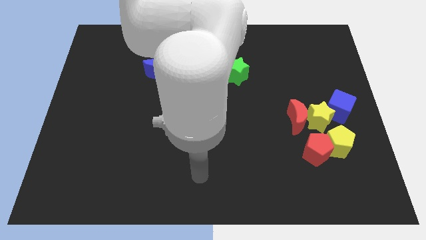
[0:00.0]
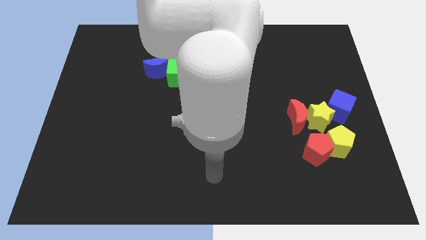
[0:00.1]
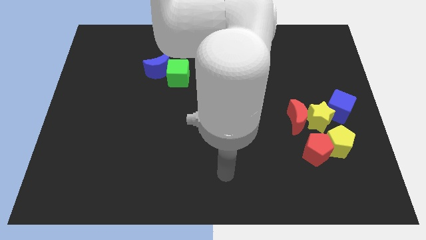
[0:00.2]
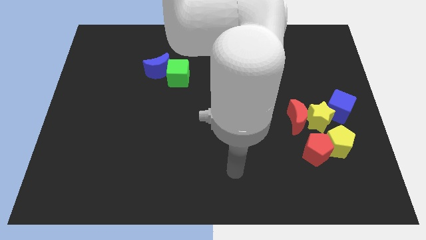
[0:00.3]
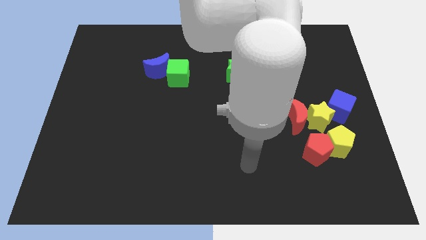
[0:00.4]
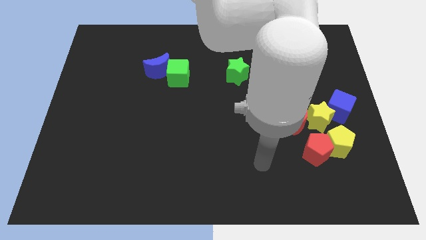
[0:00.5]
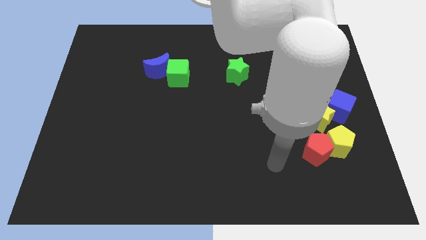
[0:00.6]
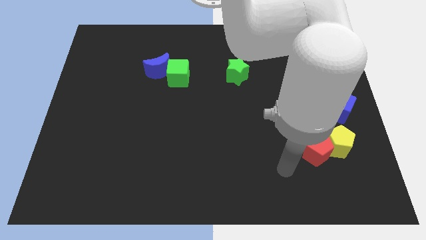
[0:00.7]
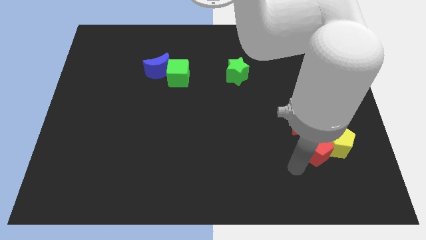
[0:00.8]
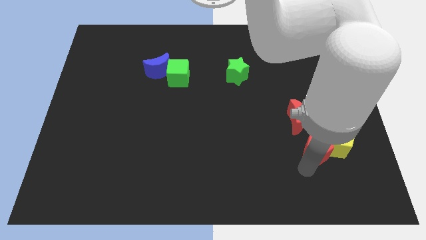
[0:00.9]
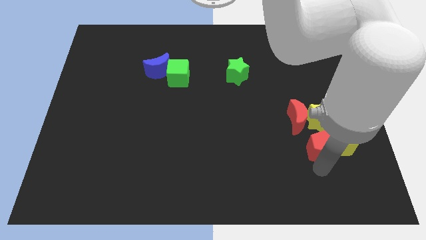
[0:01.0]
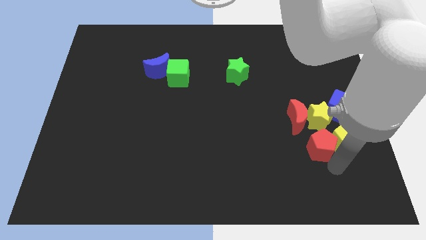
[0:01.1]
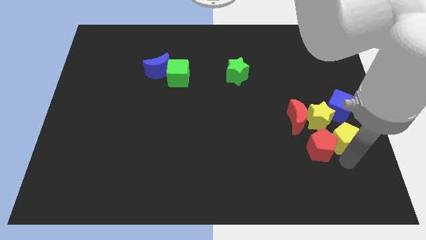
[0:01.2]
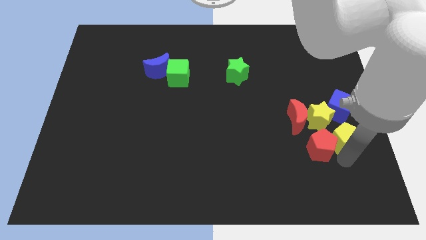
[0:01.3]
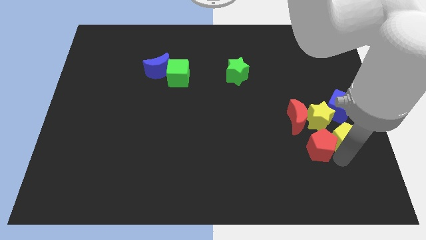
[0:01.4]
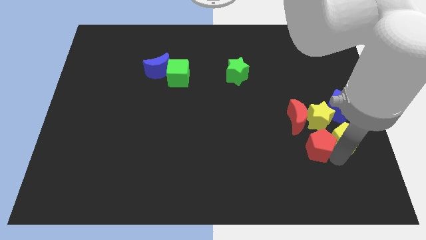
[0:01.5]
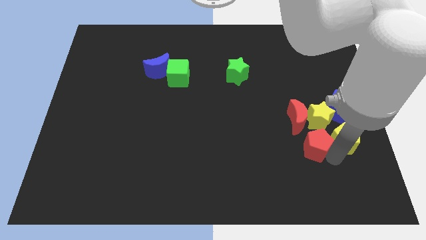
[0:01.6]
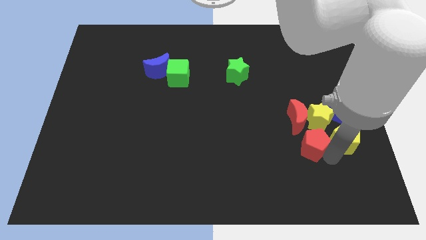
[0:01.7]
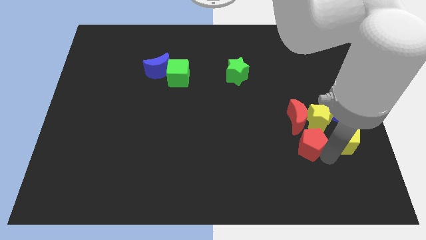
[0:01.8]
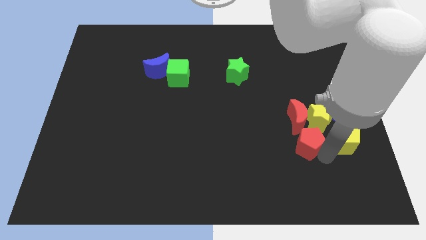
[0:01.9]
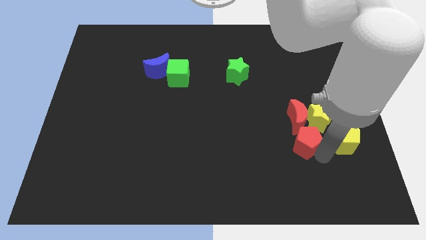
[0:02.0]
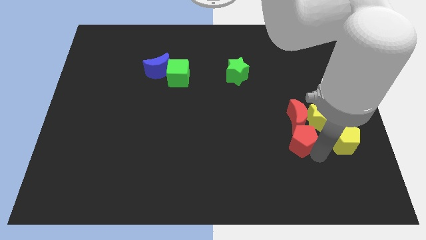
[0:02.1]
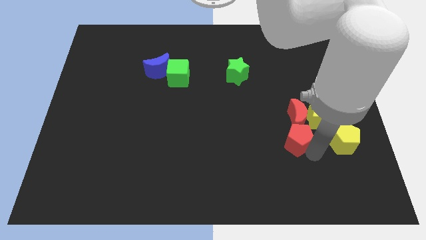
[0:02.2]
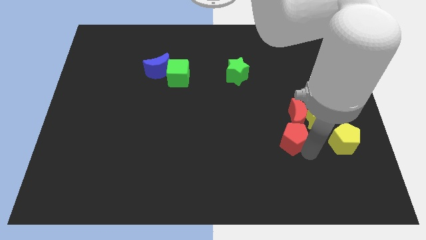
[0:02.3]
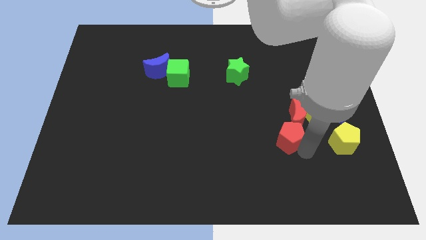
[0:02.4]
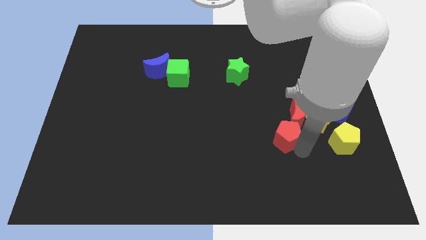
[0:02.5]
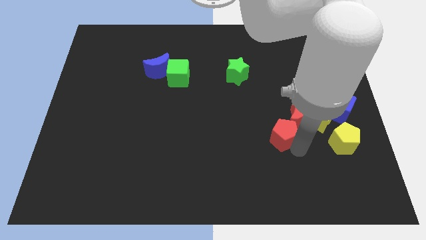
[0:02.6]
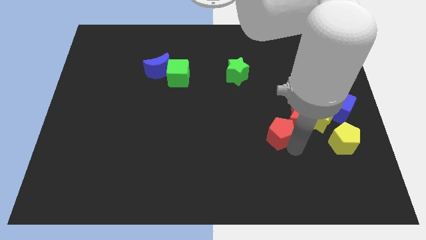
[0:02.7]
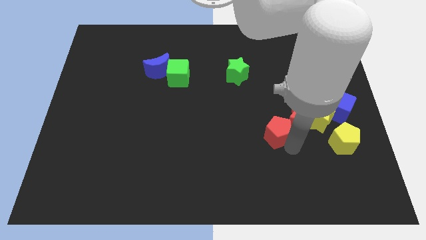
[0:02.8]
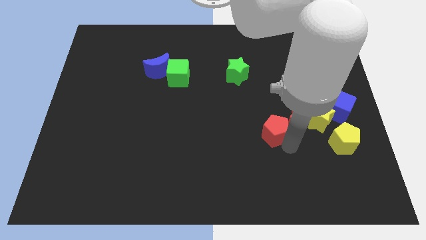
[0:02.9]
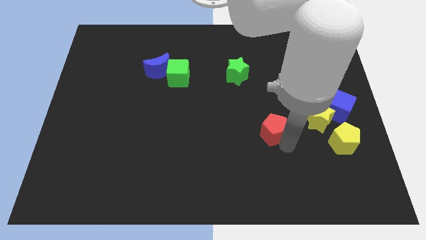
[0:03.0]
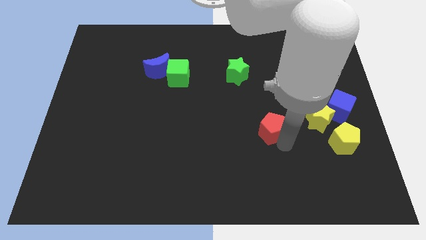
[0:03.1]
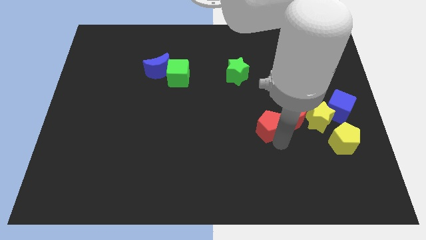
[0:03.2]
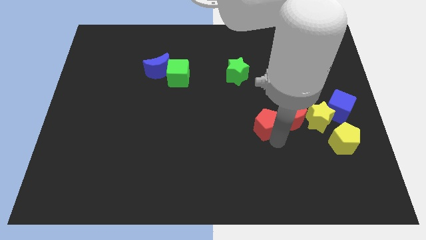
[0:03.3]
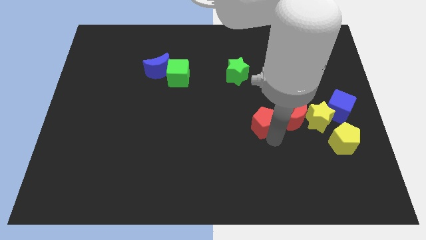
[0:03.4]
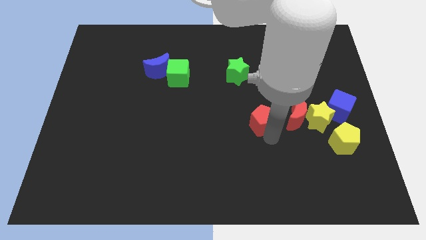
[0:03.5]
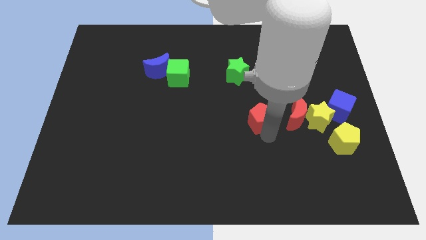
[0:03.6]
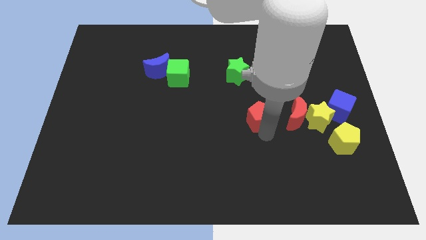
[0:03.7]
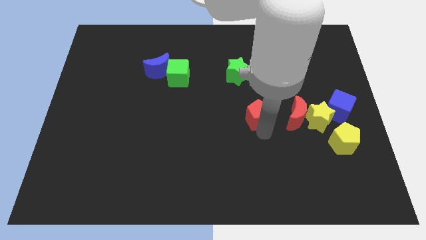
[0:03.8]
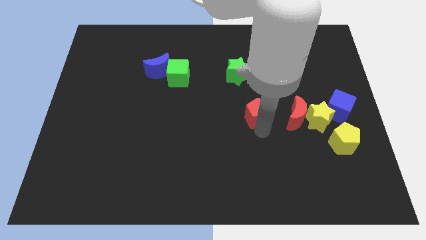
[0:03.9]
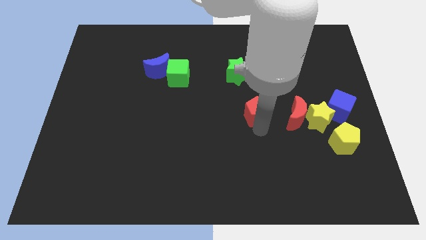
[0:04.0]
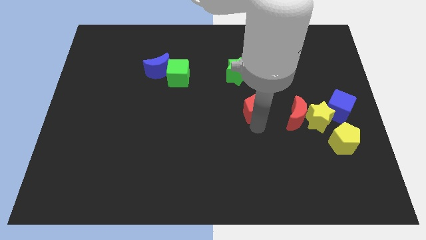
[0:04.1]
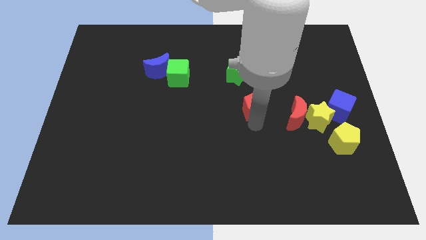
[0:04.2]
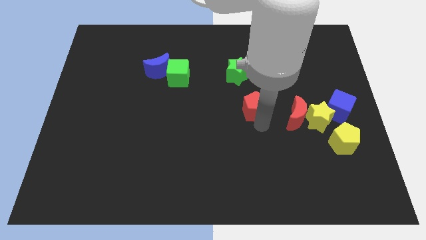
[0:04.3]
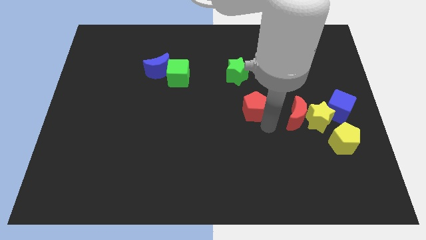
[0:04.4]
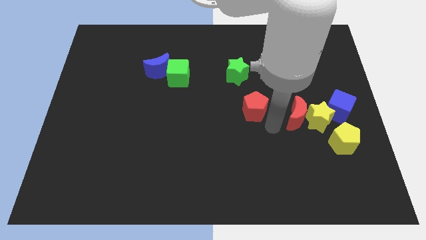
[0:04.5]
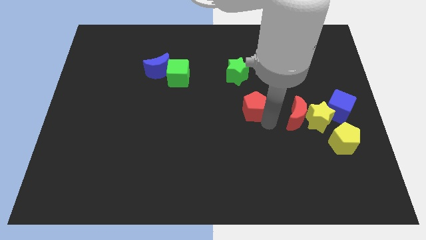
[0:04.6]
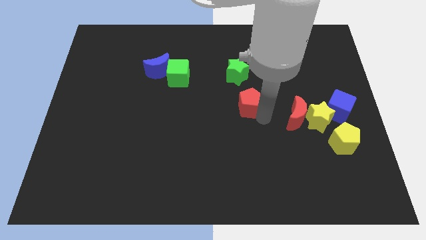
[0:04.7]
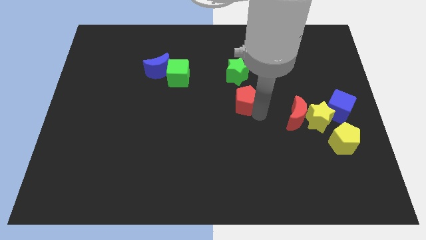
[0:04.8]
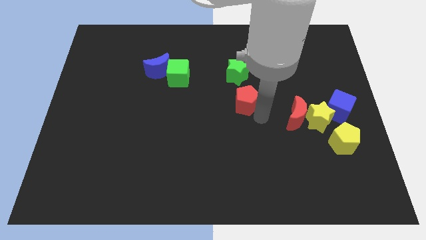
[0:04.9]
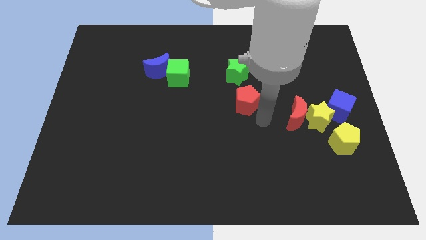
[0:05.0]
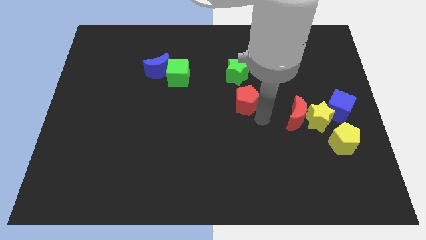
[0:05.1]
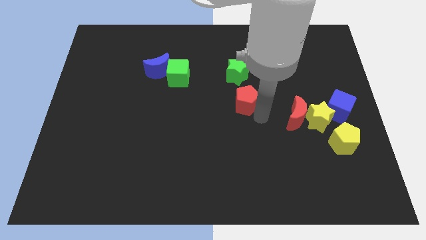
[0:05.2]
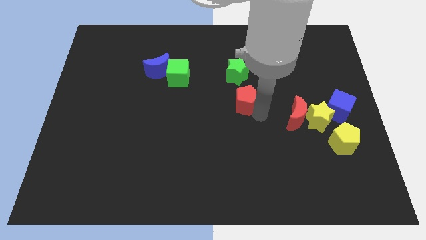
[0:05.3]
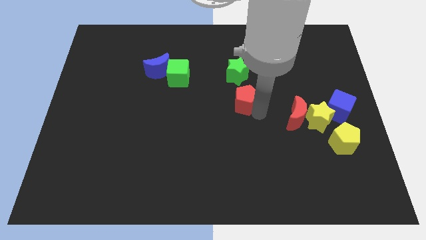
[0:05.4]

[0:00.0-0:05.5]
push the red pentagon upwards and then left

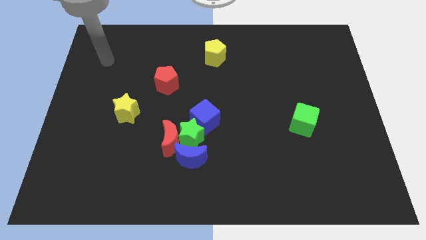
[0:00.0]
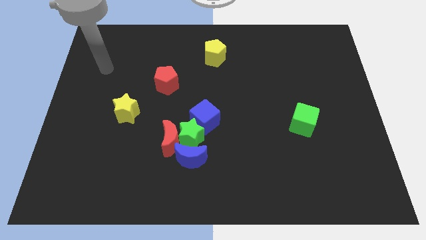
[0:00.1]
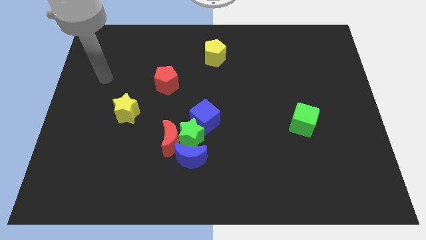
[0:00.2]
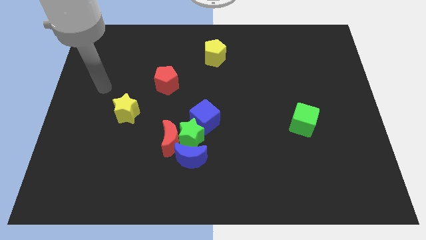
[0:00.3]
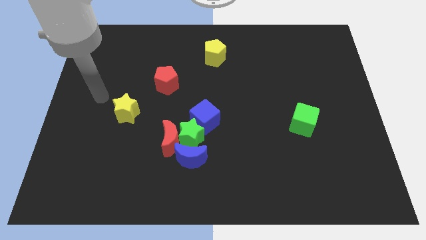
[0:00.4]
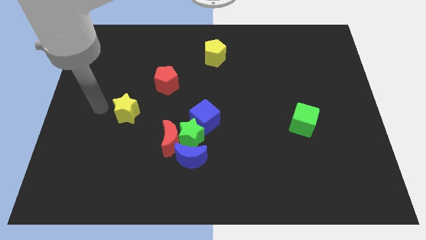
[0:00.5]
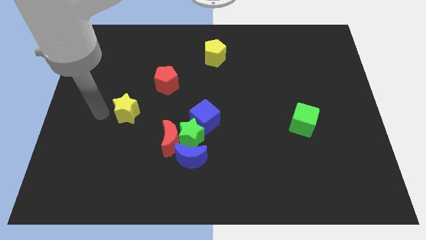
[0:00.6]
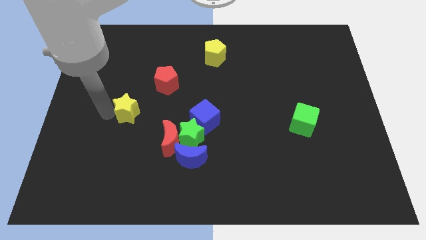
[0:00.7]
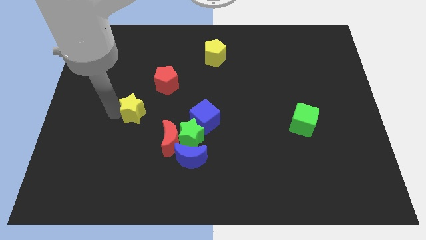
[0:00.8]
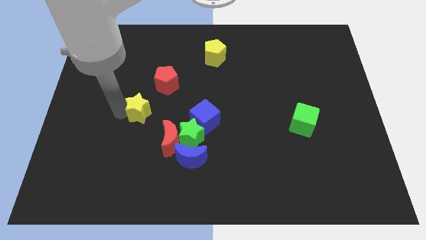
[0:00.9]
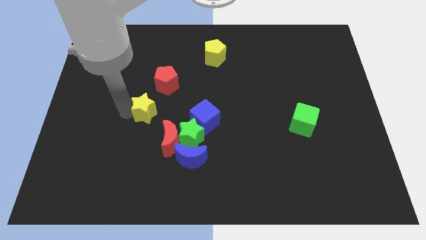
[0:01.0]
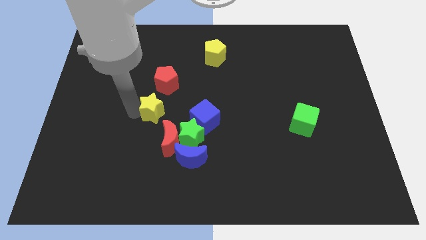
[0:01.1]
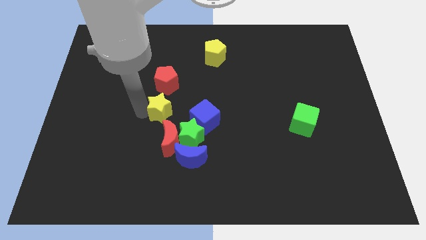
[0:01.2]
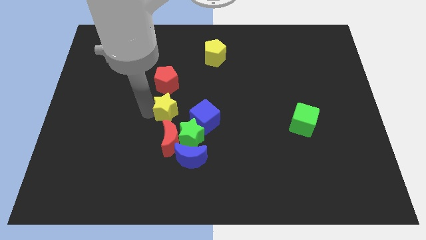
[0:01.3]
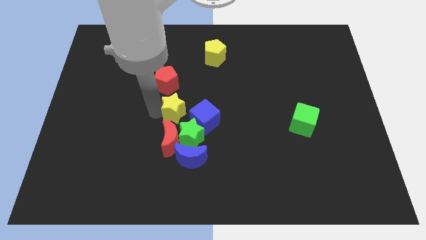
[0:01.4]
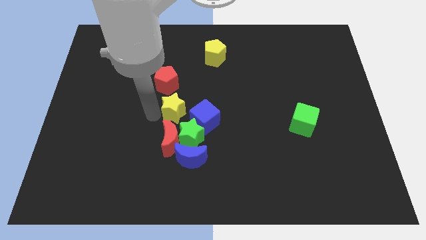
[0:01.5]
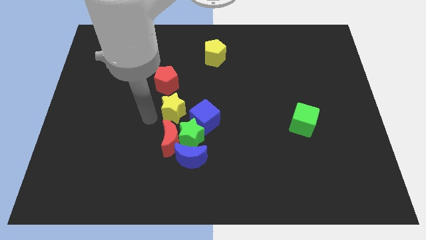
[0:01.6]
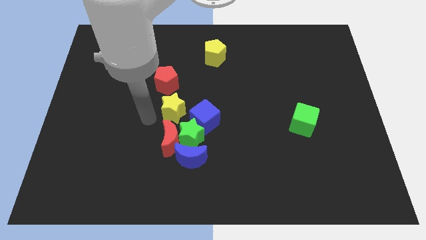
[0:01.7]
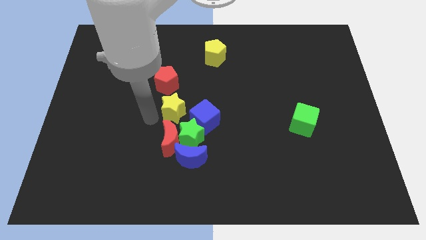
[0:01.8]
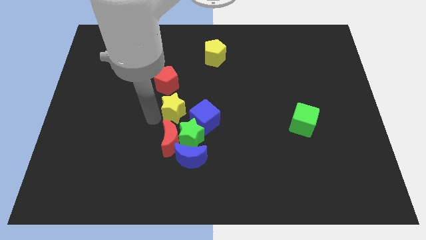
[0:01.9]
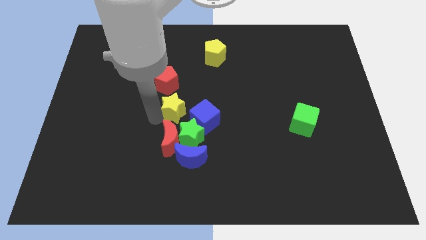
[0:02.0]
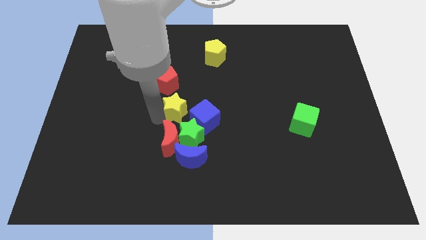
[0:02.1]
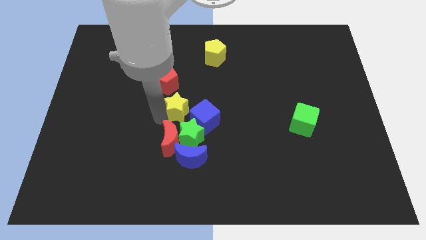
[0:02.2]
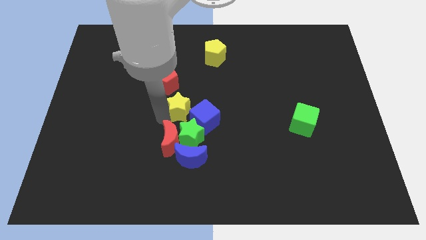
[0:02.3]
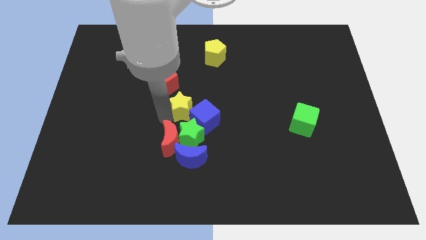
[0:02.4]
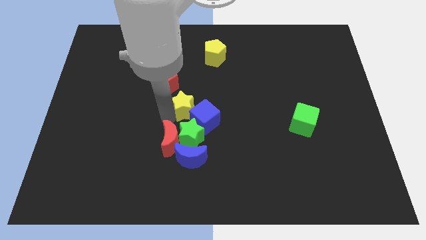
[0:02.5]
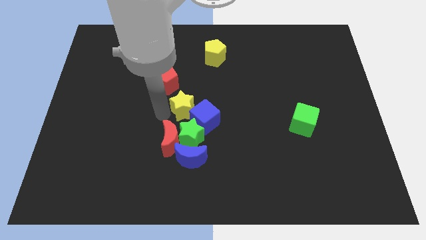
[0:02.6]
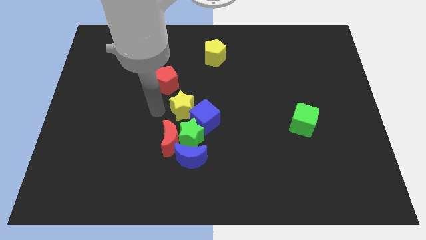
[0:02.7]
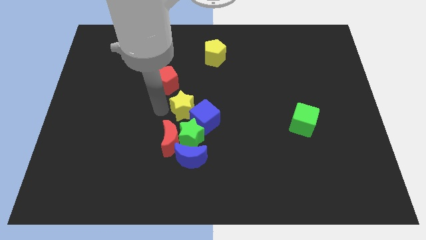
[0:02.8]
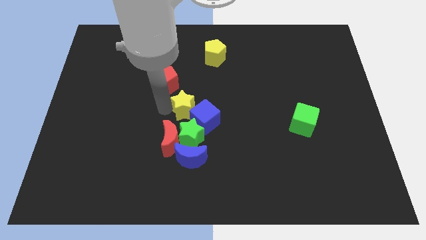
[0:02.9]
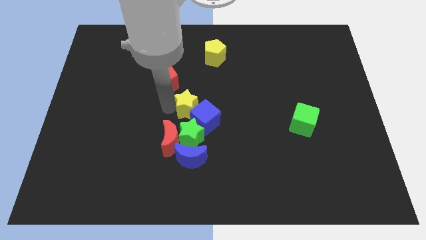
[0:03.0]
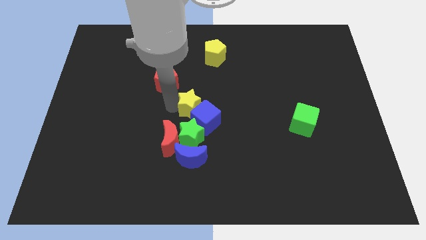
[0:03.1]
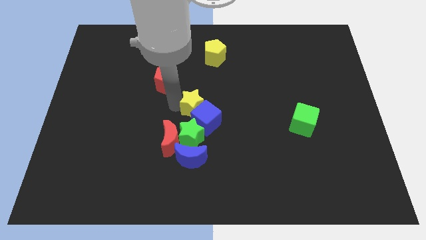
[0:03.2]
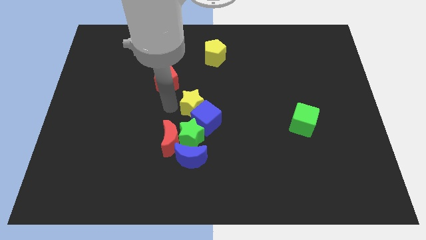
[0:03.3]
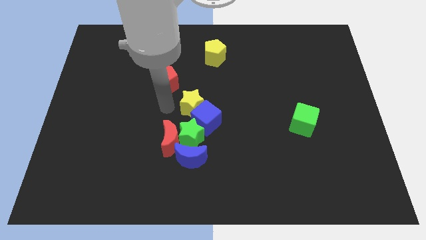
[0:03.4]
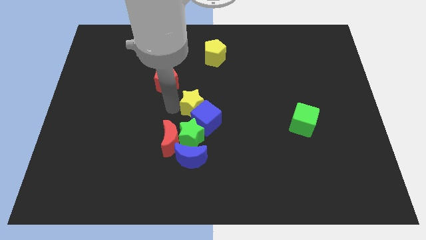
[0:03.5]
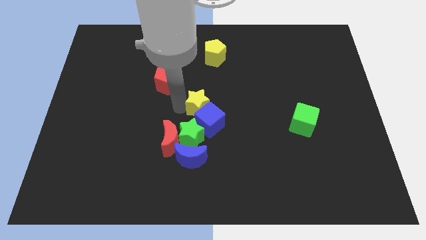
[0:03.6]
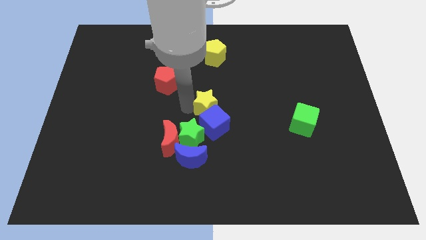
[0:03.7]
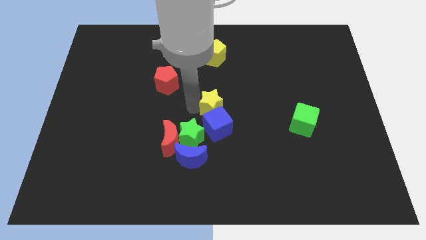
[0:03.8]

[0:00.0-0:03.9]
move the yellow star to the right
